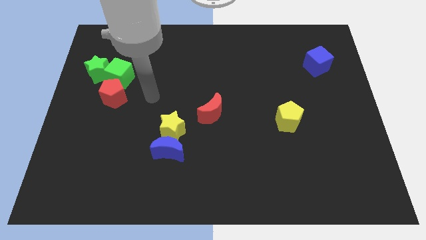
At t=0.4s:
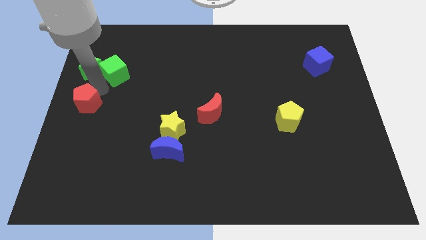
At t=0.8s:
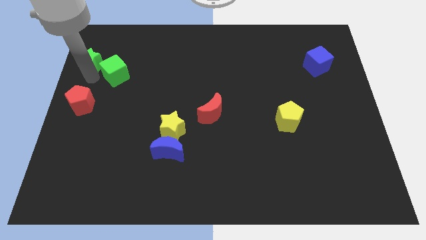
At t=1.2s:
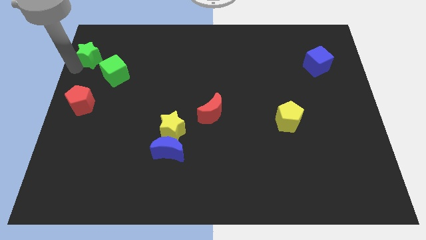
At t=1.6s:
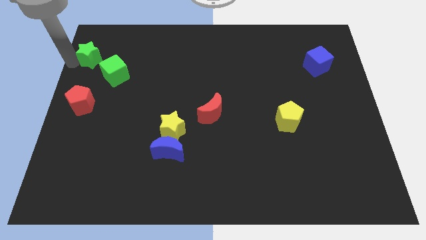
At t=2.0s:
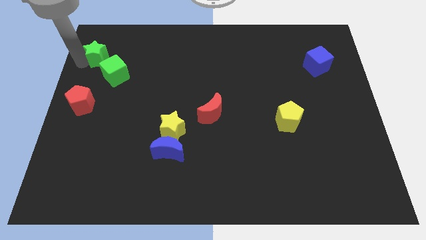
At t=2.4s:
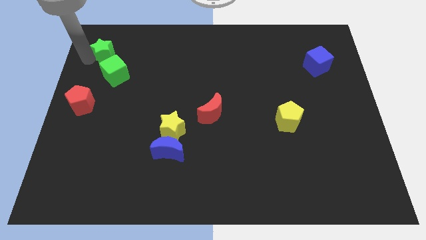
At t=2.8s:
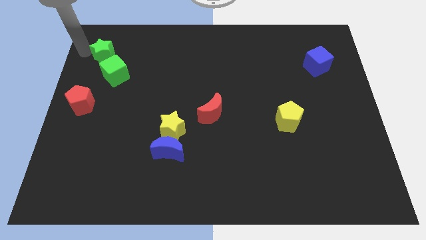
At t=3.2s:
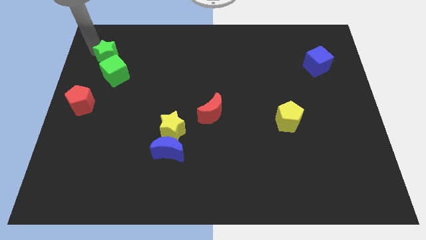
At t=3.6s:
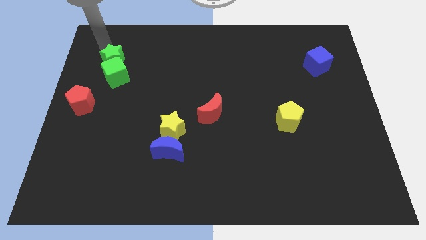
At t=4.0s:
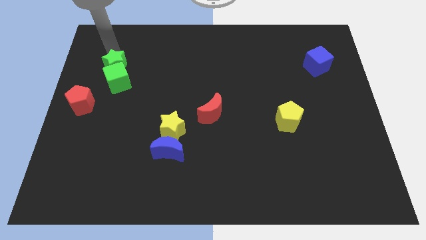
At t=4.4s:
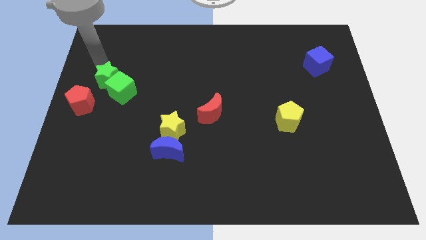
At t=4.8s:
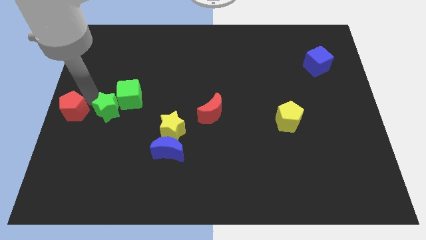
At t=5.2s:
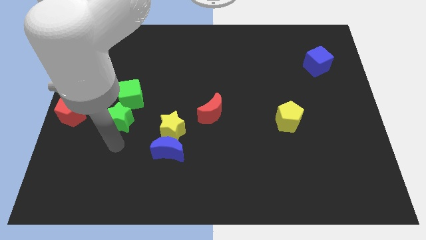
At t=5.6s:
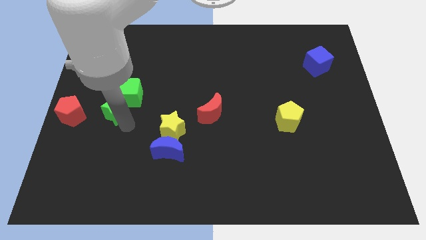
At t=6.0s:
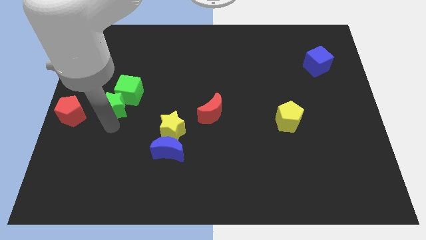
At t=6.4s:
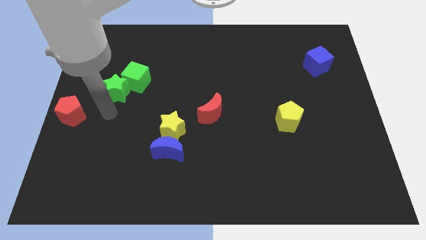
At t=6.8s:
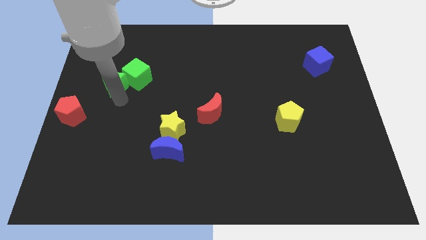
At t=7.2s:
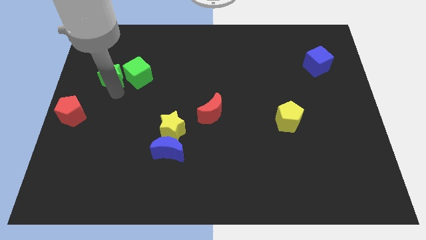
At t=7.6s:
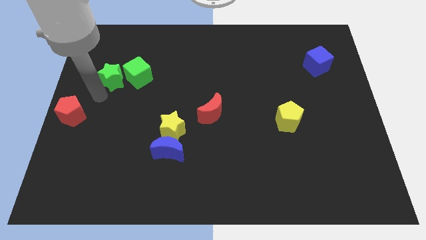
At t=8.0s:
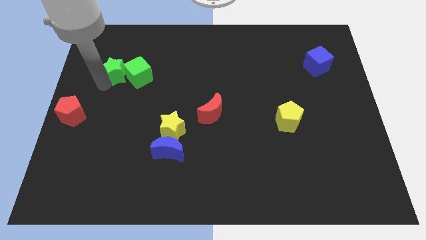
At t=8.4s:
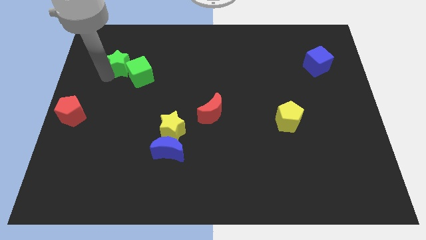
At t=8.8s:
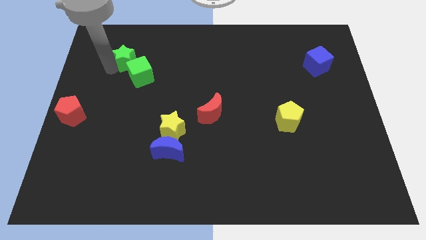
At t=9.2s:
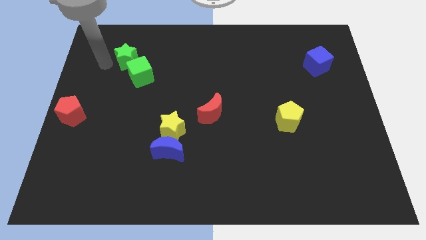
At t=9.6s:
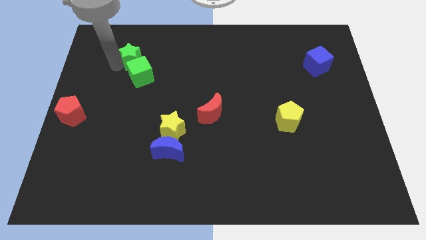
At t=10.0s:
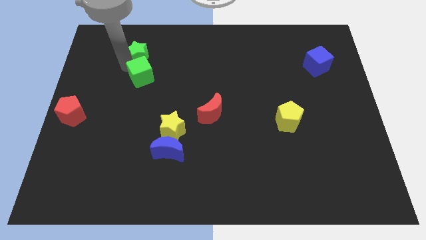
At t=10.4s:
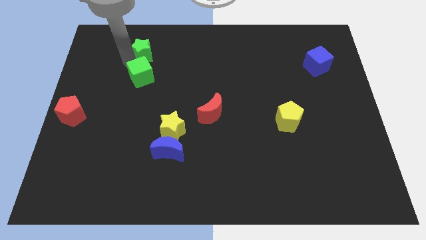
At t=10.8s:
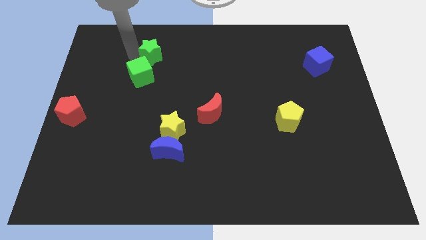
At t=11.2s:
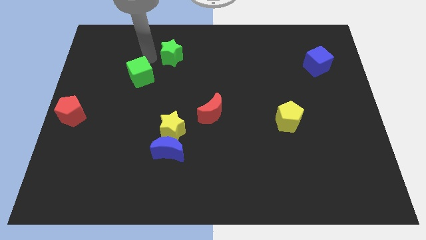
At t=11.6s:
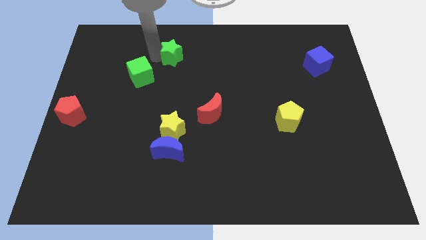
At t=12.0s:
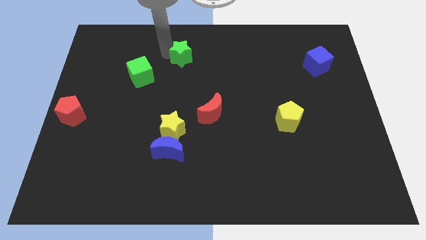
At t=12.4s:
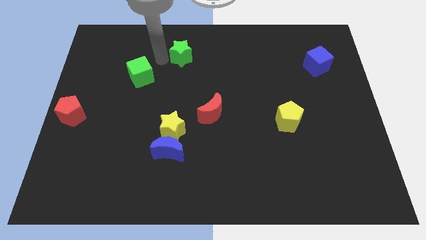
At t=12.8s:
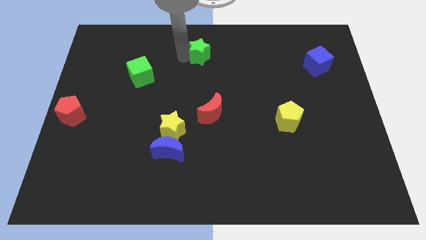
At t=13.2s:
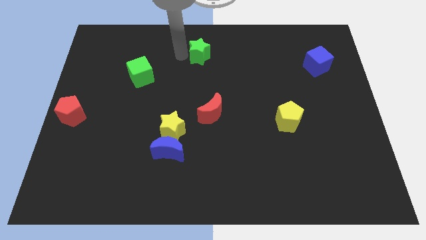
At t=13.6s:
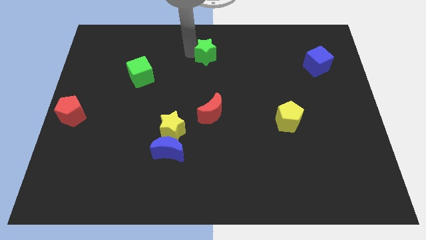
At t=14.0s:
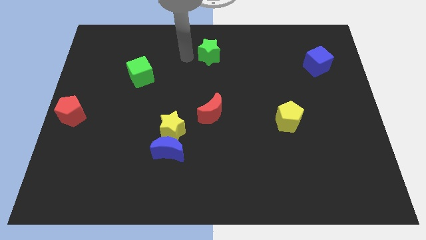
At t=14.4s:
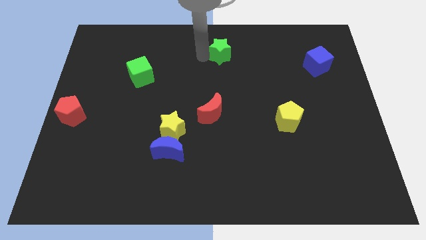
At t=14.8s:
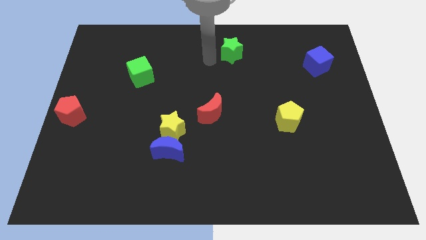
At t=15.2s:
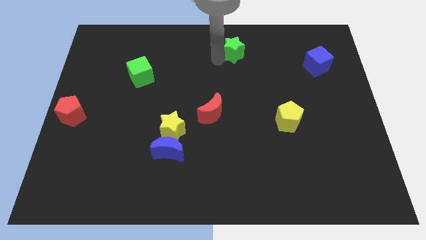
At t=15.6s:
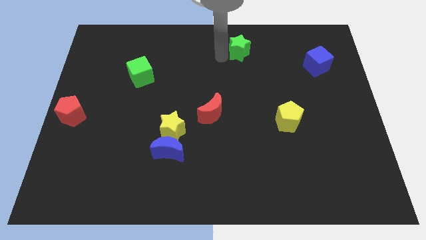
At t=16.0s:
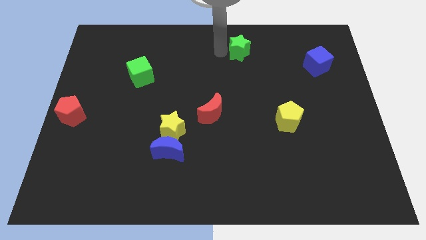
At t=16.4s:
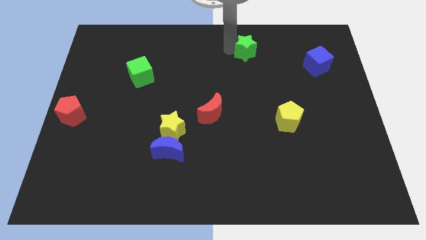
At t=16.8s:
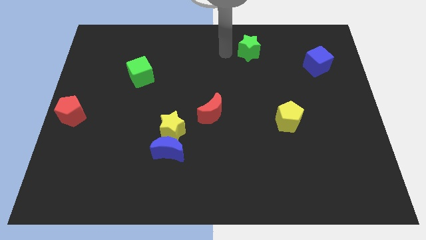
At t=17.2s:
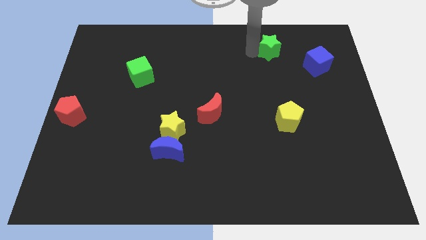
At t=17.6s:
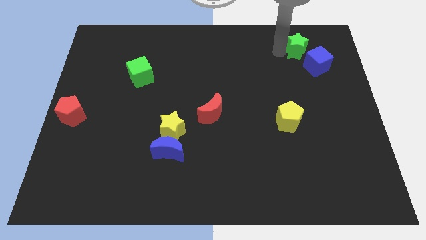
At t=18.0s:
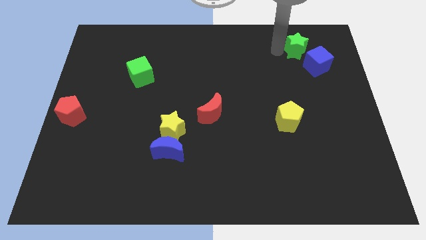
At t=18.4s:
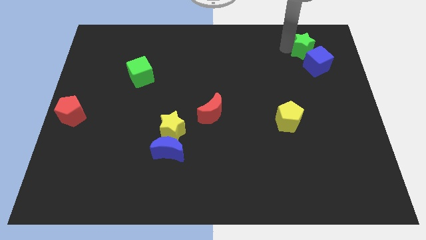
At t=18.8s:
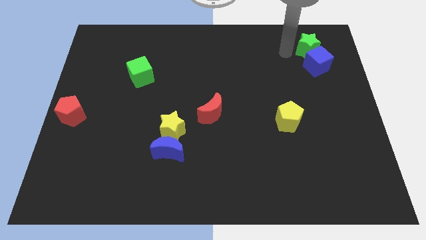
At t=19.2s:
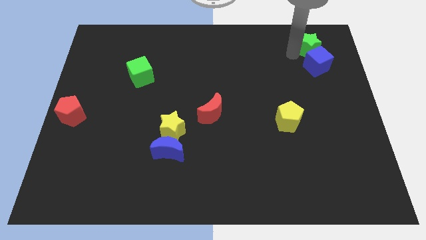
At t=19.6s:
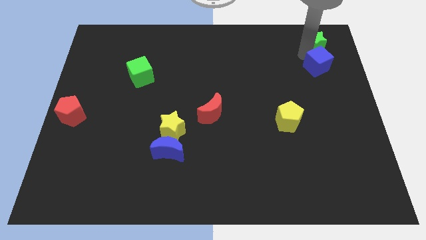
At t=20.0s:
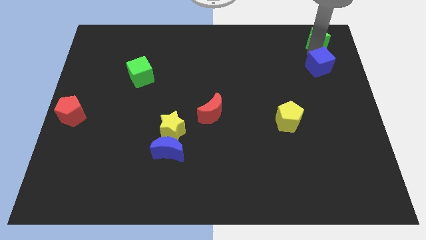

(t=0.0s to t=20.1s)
put the green star to the top right

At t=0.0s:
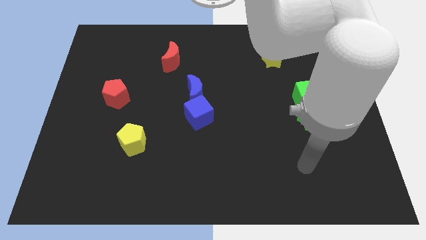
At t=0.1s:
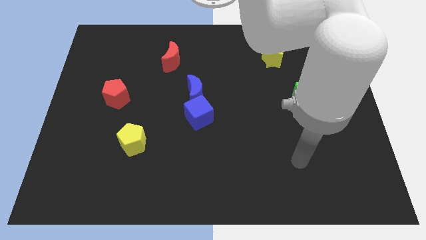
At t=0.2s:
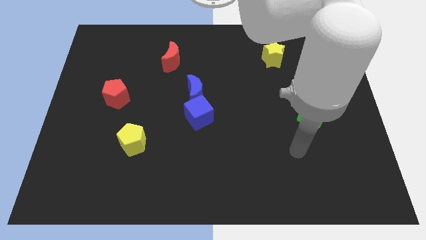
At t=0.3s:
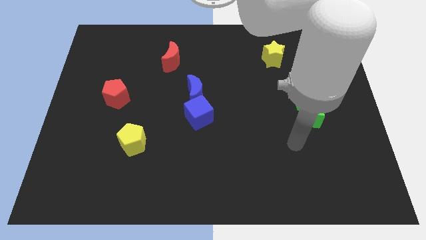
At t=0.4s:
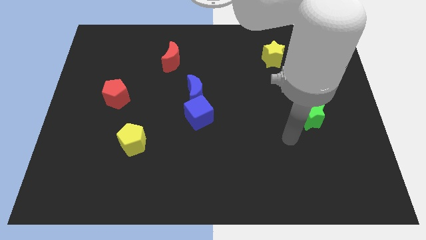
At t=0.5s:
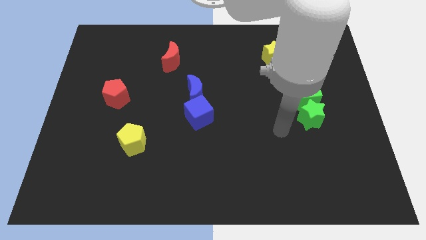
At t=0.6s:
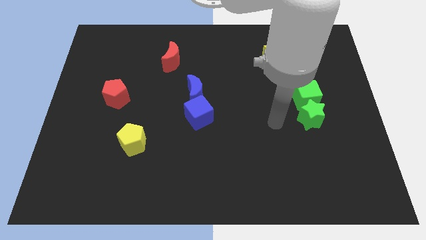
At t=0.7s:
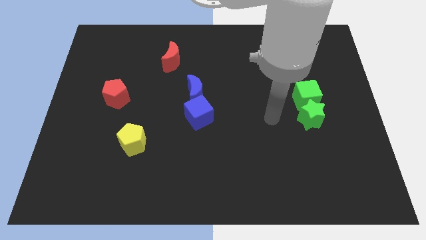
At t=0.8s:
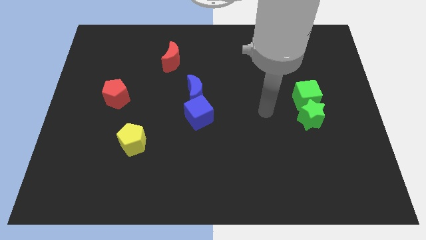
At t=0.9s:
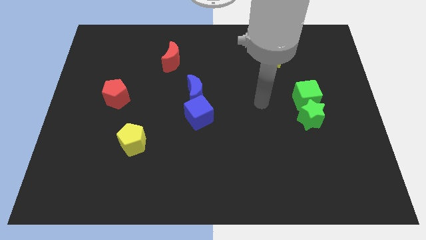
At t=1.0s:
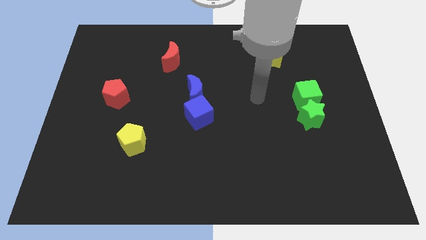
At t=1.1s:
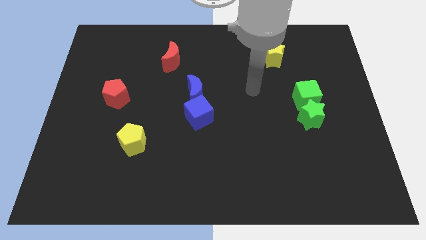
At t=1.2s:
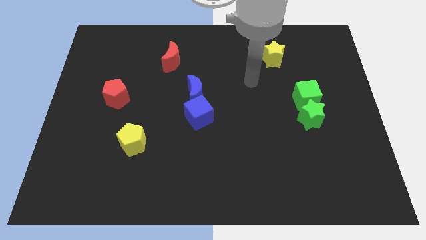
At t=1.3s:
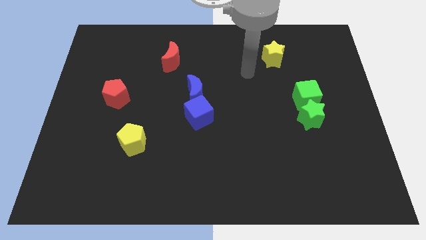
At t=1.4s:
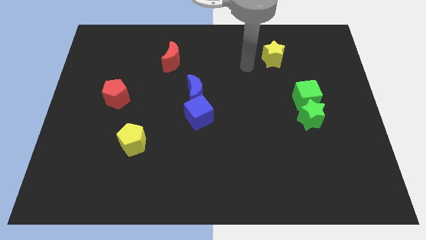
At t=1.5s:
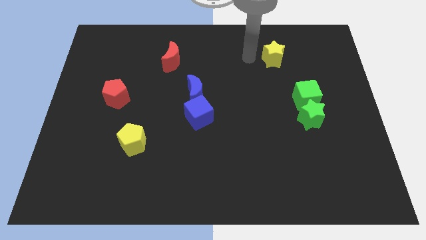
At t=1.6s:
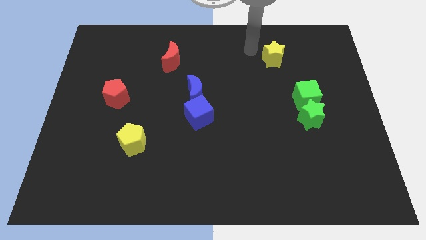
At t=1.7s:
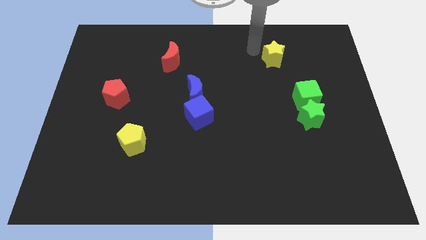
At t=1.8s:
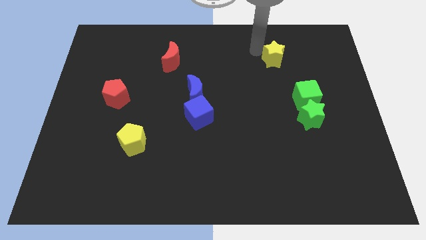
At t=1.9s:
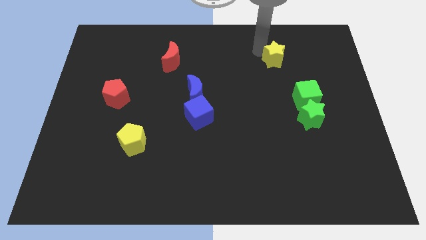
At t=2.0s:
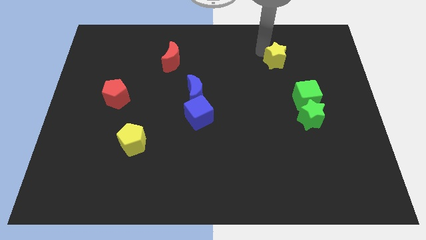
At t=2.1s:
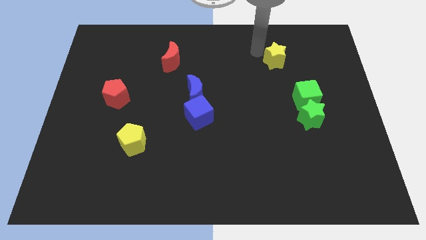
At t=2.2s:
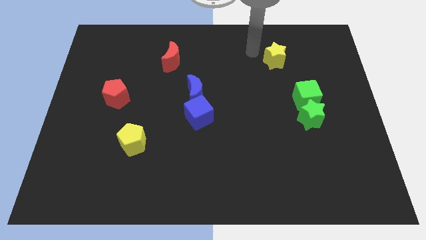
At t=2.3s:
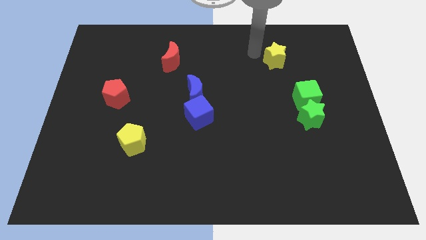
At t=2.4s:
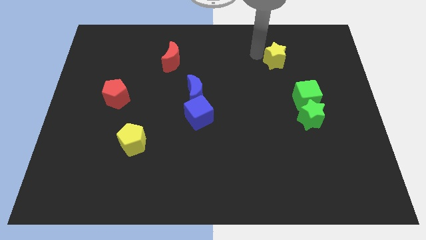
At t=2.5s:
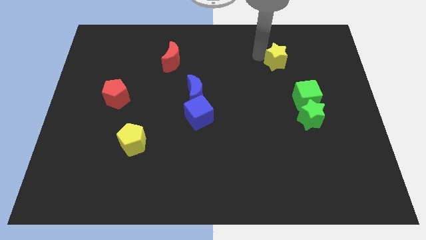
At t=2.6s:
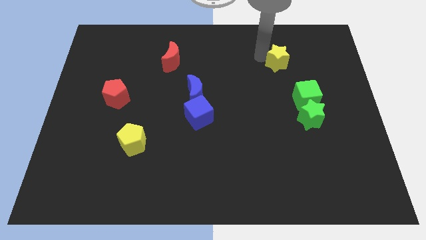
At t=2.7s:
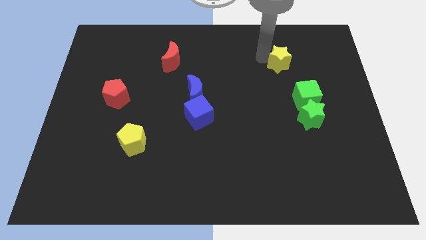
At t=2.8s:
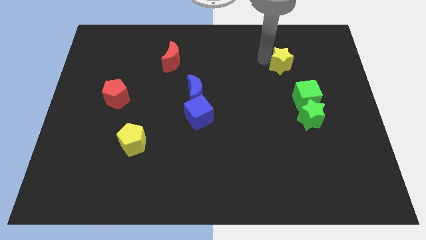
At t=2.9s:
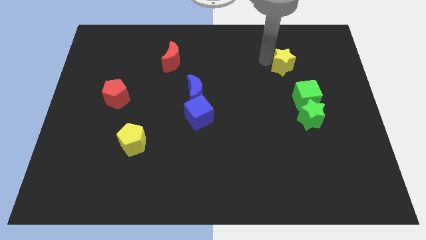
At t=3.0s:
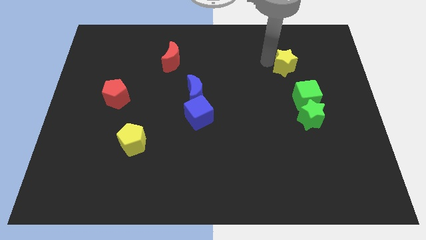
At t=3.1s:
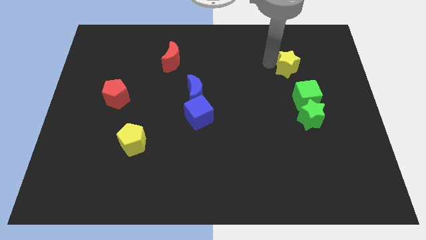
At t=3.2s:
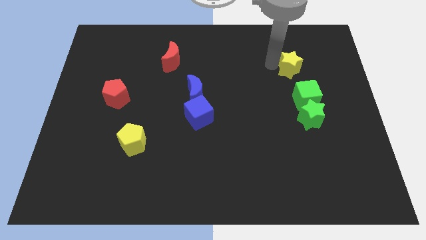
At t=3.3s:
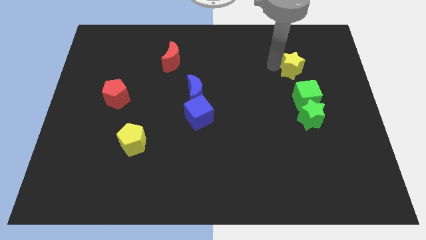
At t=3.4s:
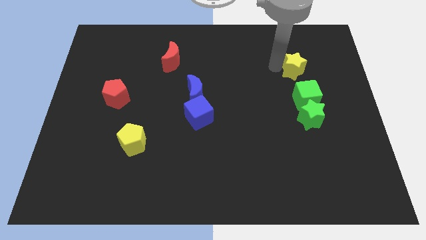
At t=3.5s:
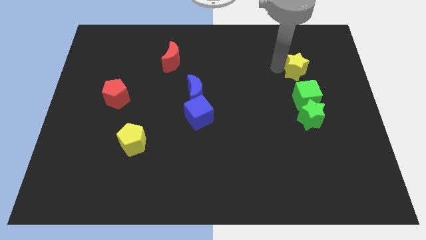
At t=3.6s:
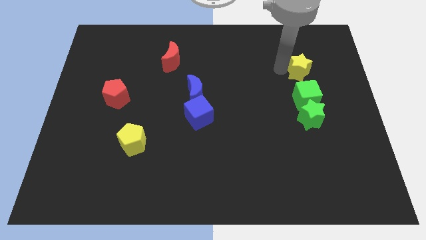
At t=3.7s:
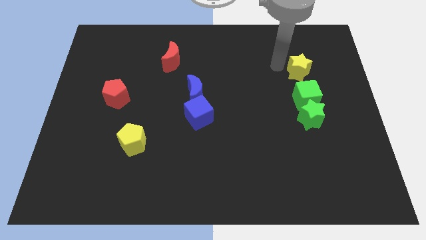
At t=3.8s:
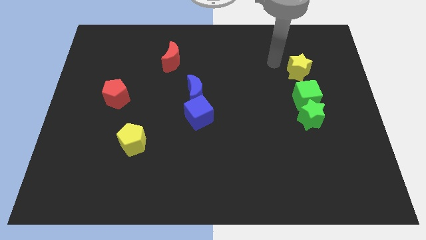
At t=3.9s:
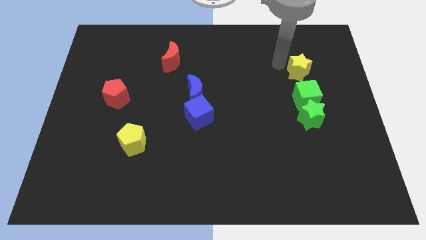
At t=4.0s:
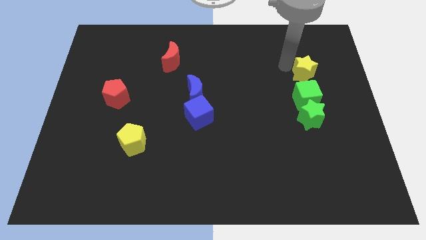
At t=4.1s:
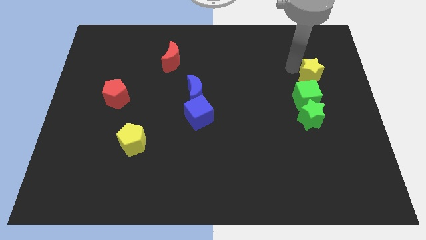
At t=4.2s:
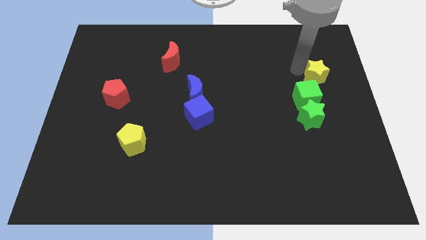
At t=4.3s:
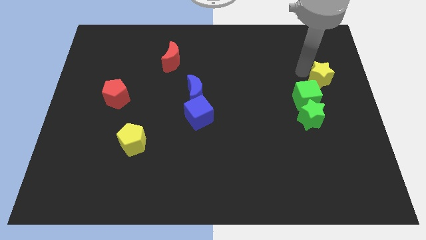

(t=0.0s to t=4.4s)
slide the yellow star to the right side
